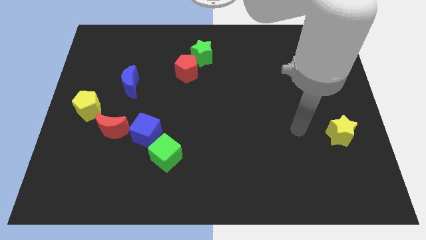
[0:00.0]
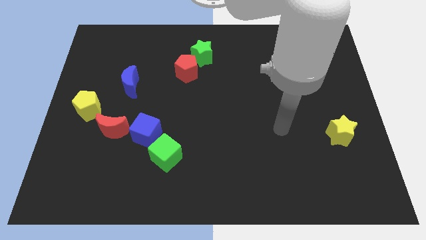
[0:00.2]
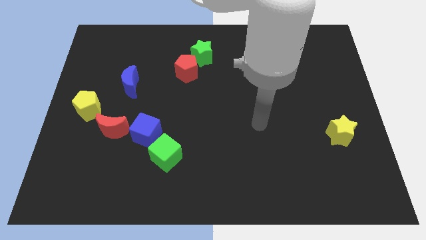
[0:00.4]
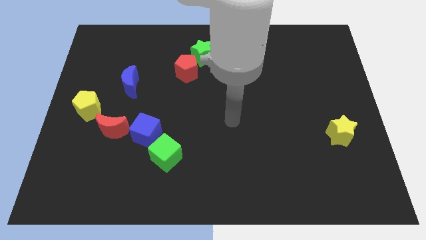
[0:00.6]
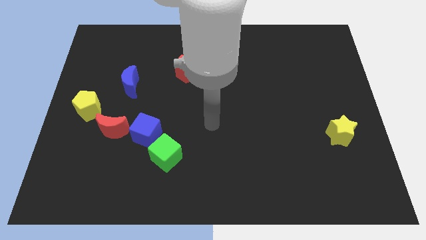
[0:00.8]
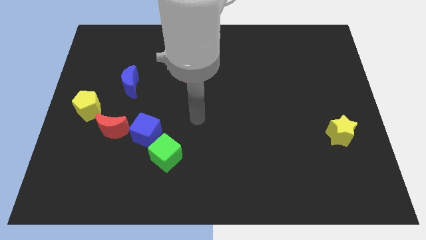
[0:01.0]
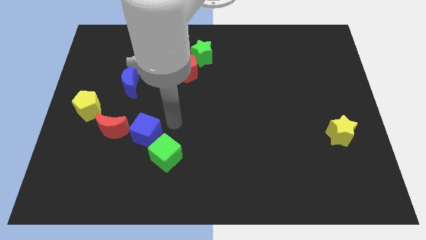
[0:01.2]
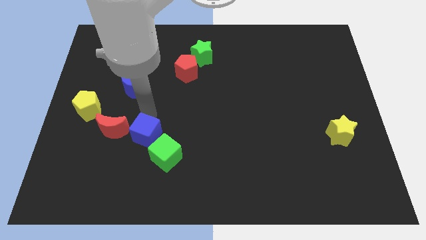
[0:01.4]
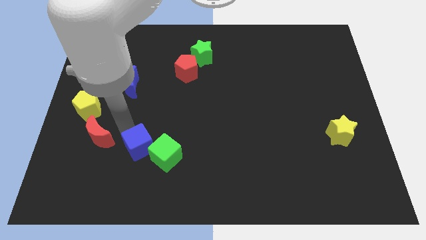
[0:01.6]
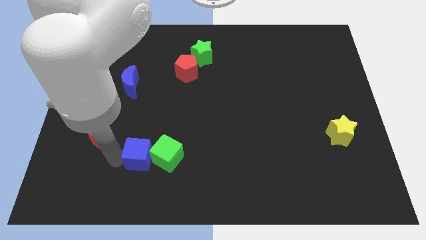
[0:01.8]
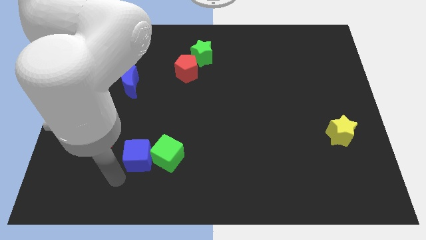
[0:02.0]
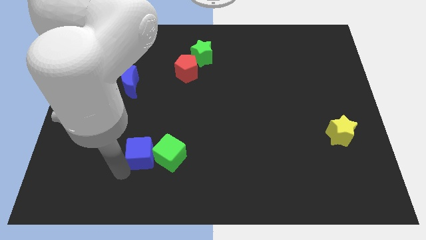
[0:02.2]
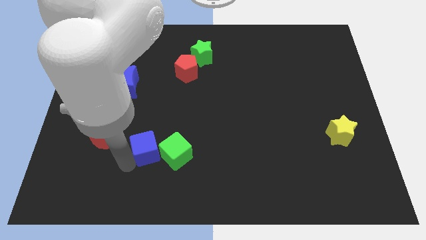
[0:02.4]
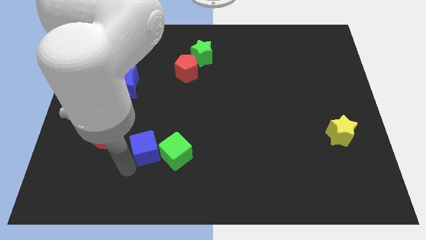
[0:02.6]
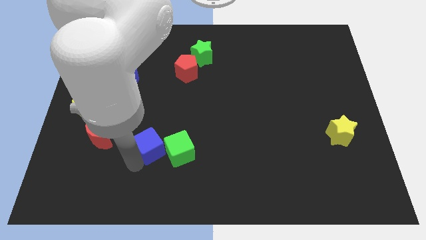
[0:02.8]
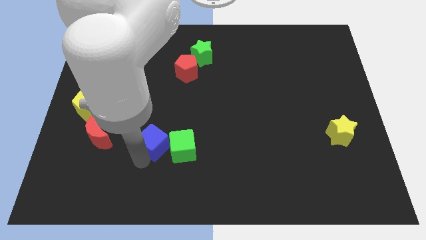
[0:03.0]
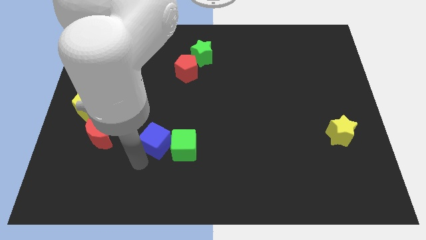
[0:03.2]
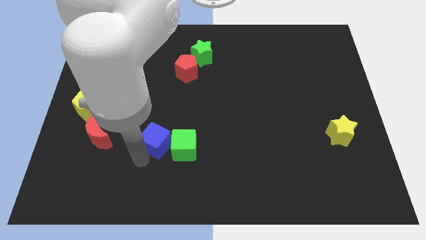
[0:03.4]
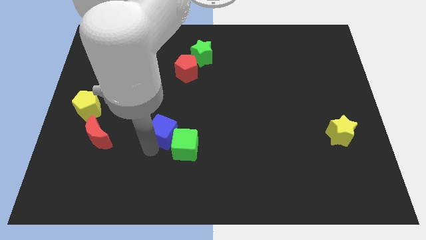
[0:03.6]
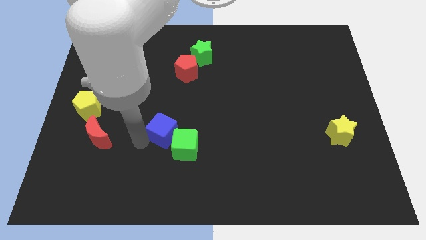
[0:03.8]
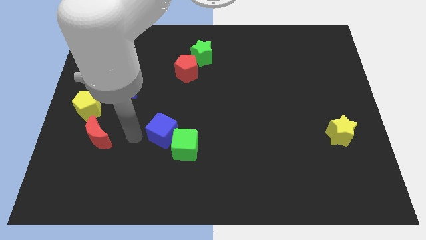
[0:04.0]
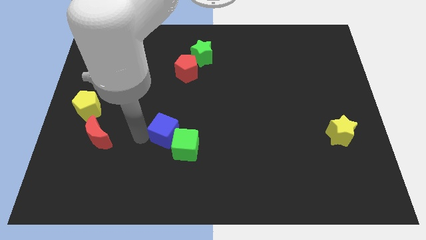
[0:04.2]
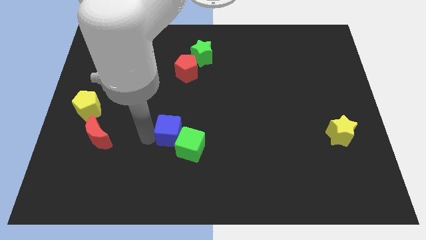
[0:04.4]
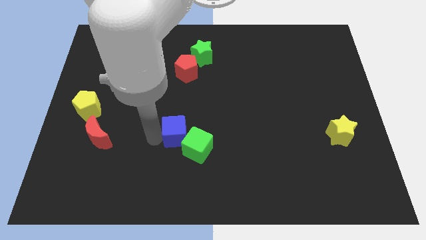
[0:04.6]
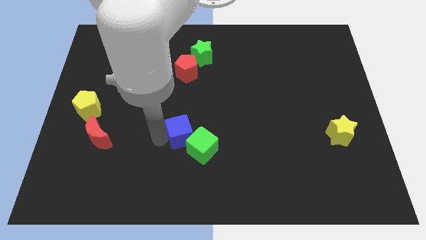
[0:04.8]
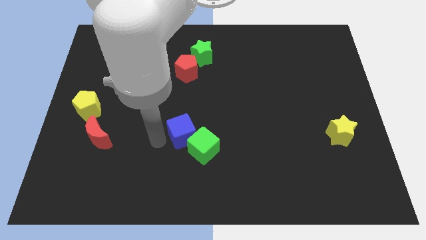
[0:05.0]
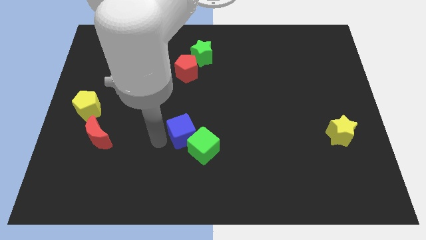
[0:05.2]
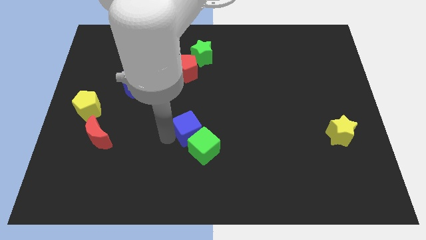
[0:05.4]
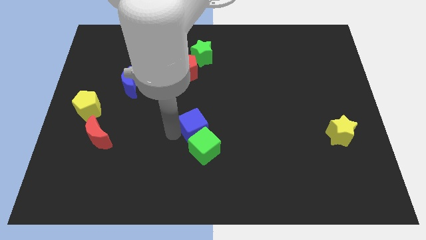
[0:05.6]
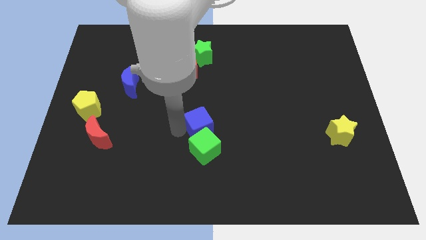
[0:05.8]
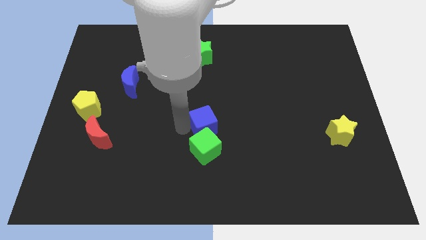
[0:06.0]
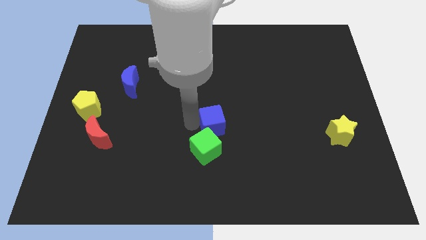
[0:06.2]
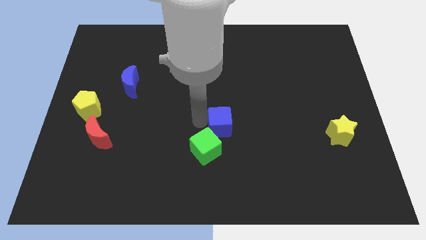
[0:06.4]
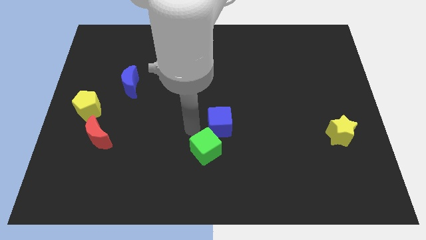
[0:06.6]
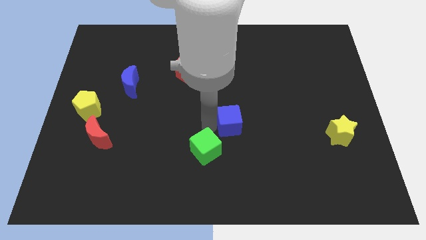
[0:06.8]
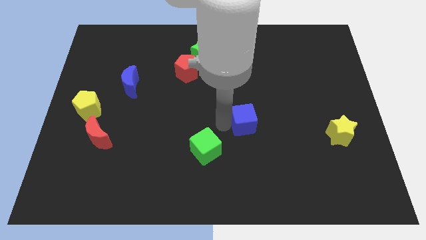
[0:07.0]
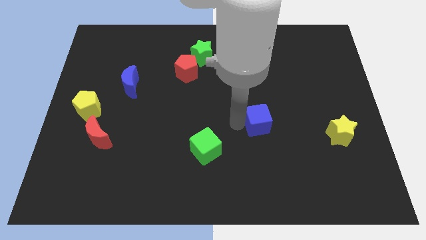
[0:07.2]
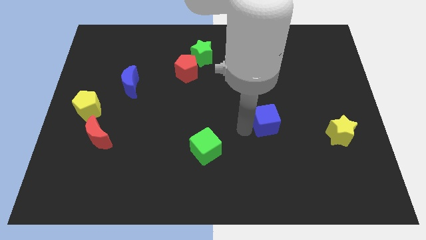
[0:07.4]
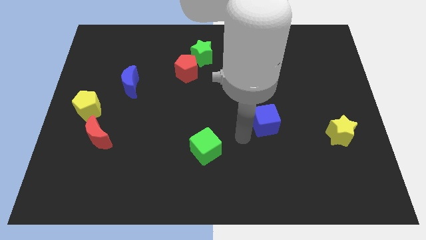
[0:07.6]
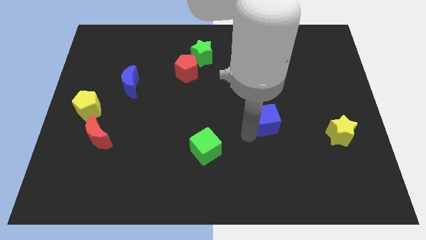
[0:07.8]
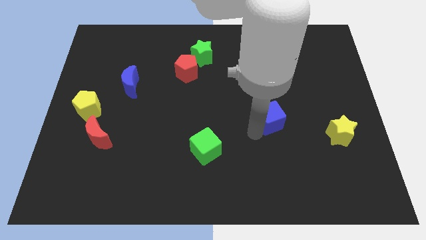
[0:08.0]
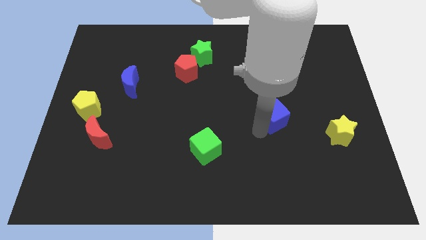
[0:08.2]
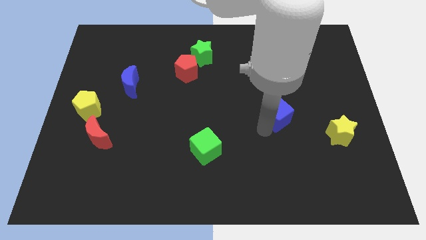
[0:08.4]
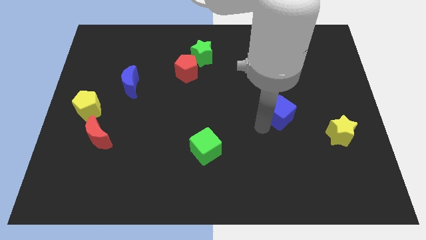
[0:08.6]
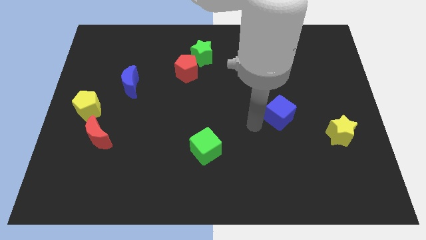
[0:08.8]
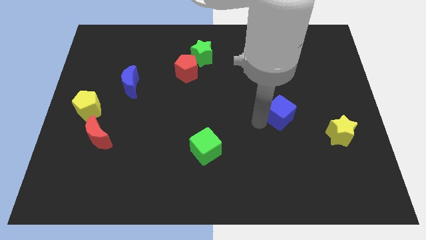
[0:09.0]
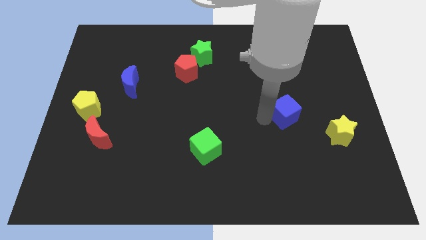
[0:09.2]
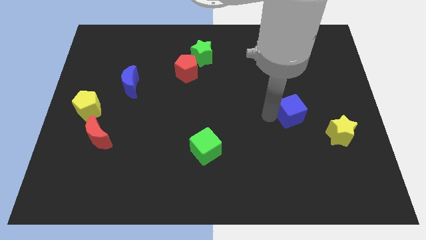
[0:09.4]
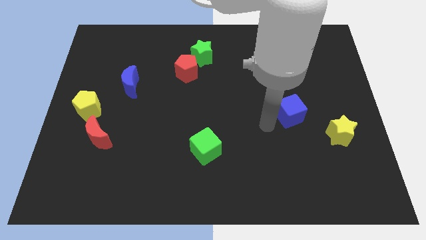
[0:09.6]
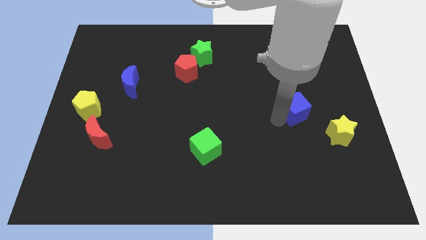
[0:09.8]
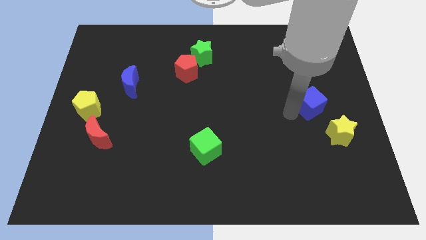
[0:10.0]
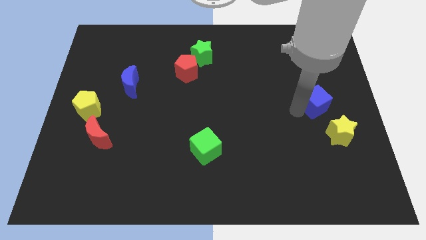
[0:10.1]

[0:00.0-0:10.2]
push the blue cube above the yellow star

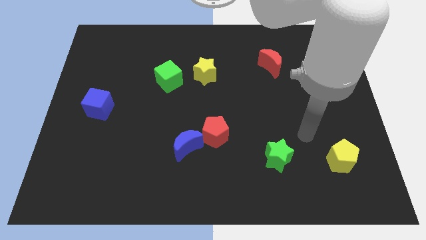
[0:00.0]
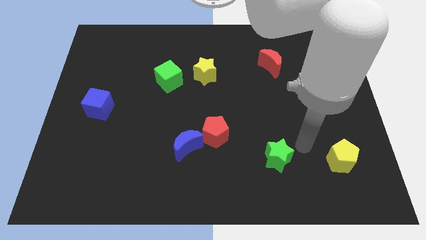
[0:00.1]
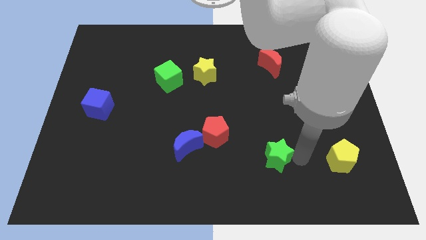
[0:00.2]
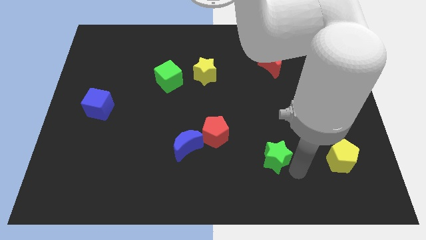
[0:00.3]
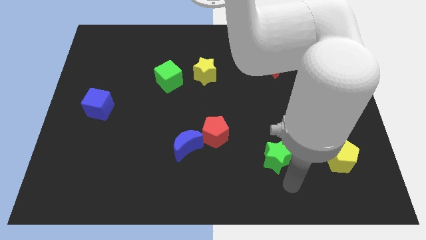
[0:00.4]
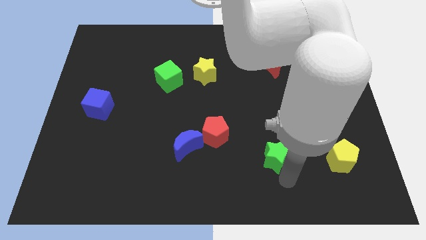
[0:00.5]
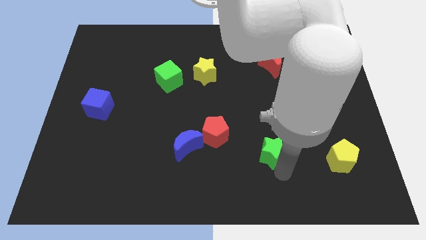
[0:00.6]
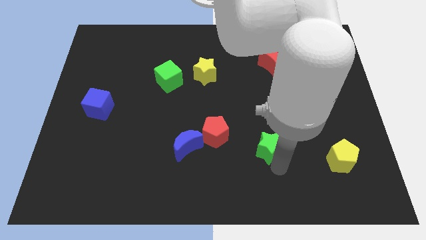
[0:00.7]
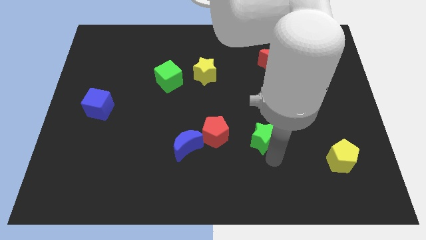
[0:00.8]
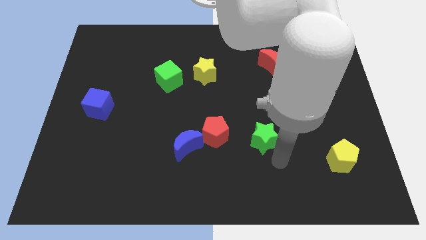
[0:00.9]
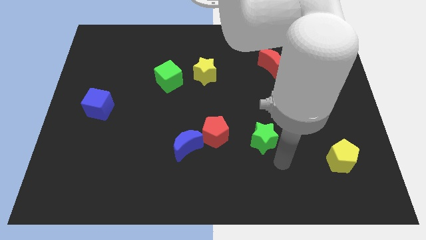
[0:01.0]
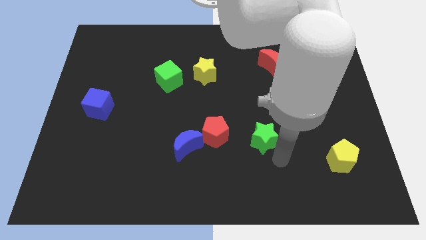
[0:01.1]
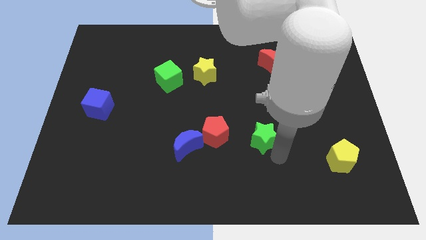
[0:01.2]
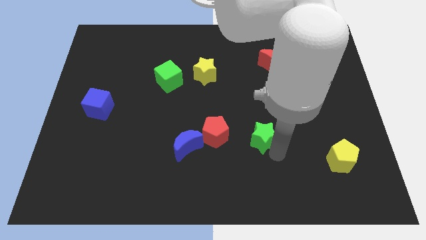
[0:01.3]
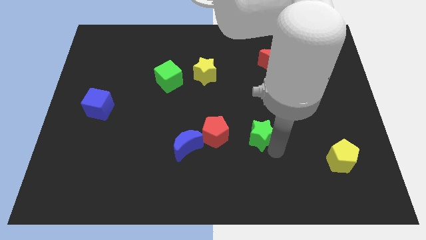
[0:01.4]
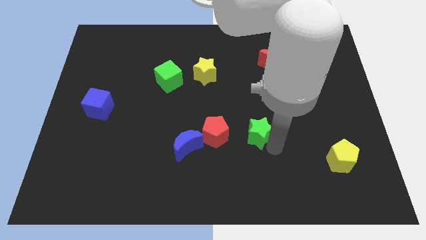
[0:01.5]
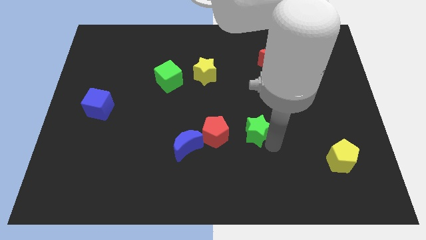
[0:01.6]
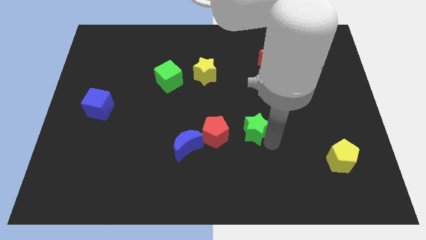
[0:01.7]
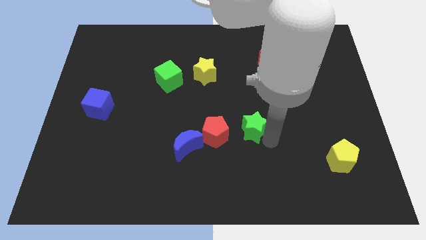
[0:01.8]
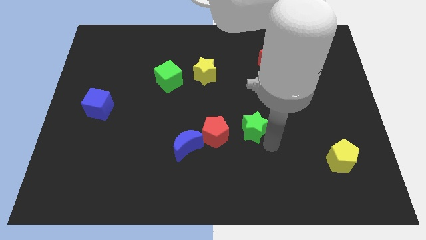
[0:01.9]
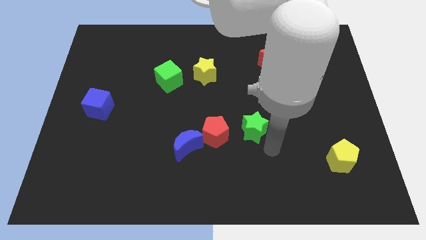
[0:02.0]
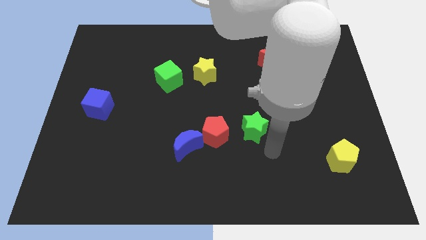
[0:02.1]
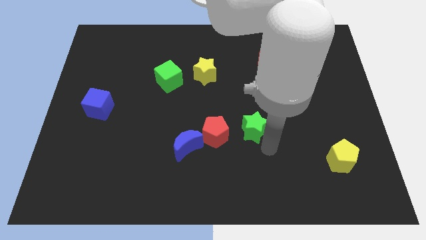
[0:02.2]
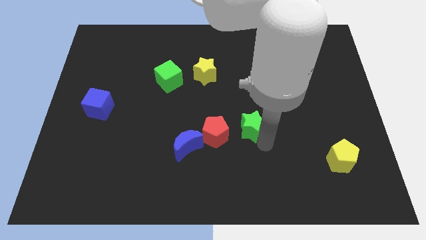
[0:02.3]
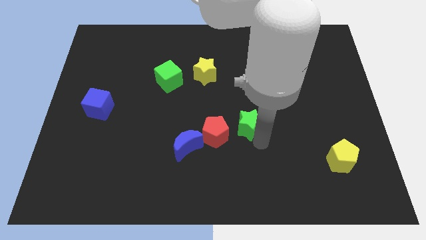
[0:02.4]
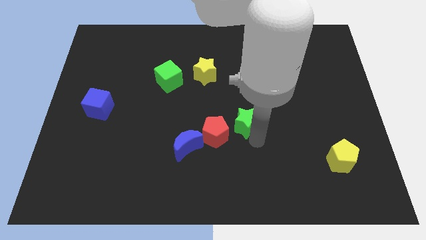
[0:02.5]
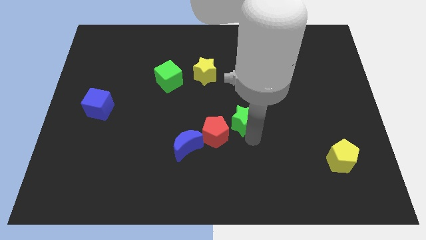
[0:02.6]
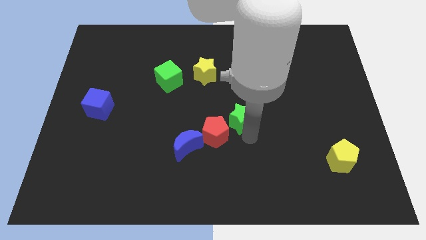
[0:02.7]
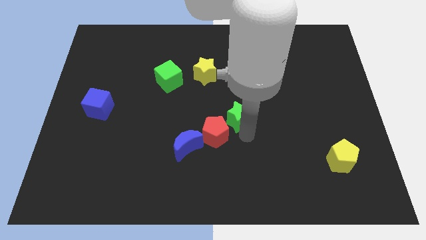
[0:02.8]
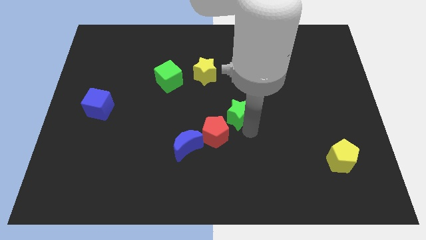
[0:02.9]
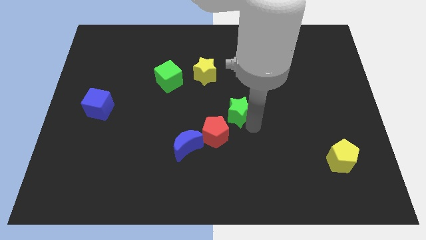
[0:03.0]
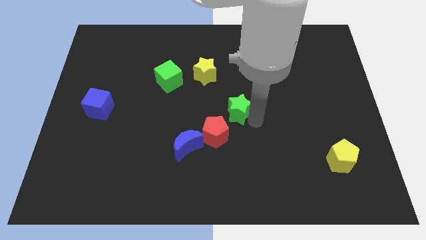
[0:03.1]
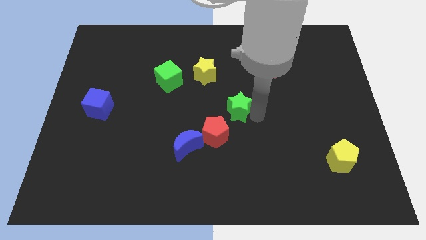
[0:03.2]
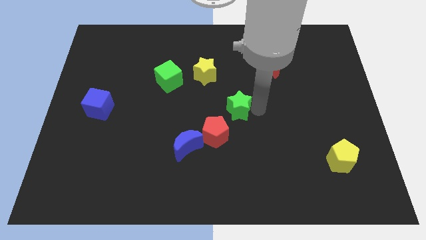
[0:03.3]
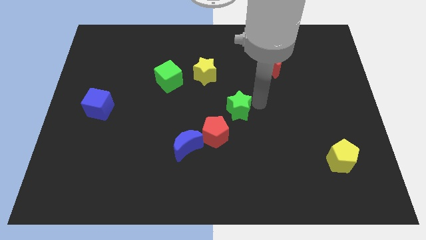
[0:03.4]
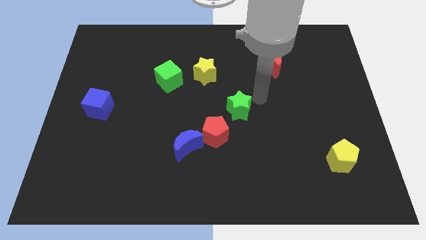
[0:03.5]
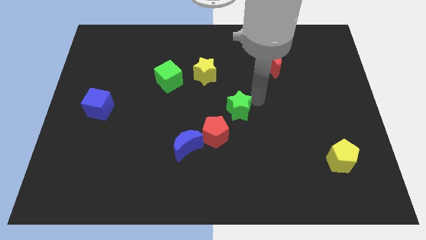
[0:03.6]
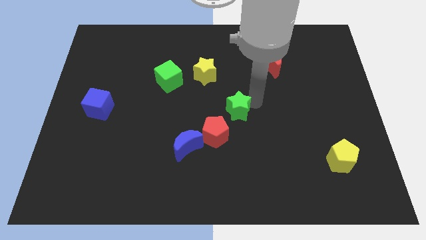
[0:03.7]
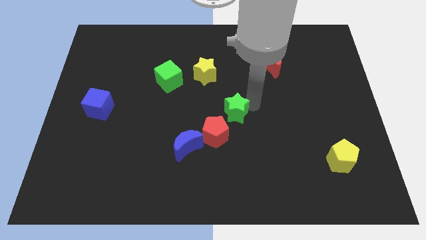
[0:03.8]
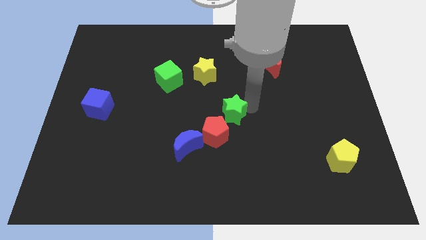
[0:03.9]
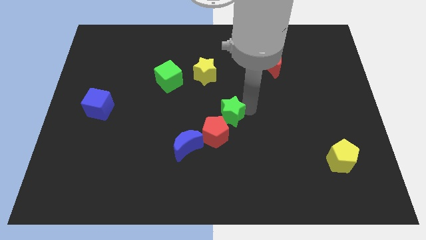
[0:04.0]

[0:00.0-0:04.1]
slide the green star diagonally up and to the right of the blue moon
